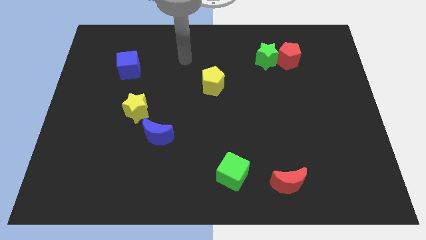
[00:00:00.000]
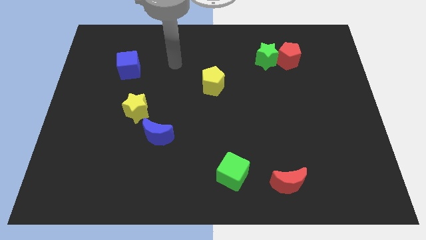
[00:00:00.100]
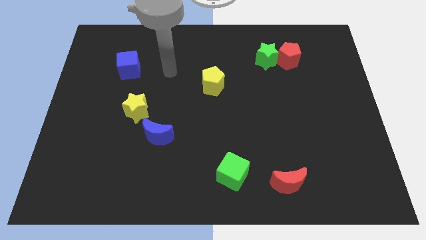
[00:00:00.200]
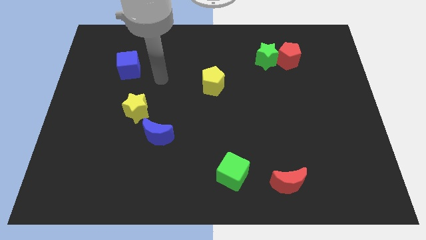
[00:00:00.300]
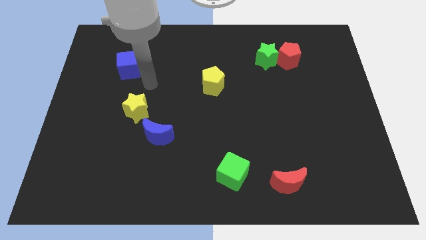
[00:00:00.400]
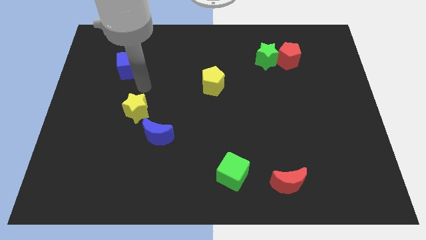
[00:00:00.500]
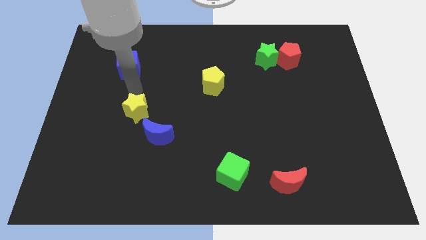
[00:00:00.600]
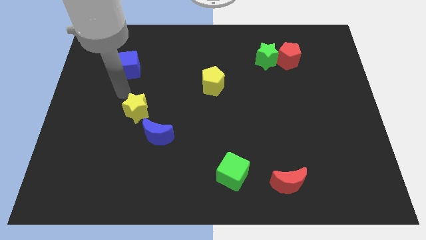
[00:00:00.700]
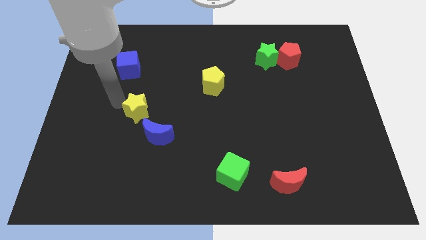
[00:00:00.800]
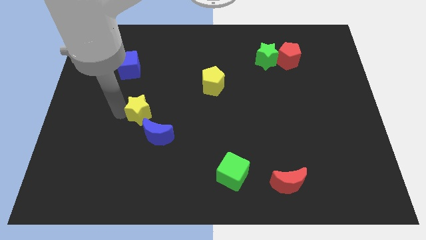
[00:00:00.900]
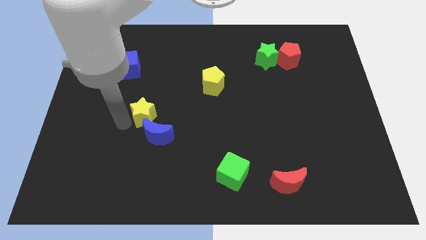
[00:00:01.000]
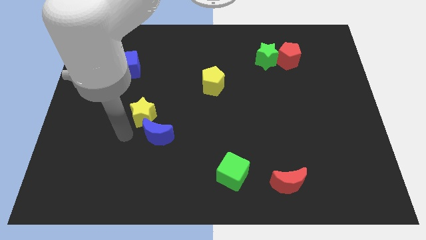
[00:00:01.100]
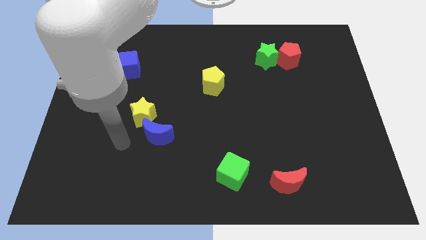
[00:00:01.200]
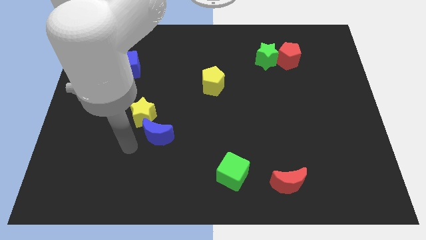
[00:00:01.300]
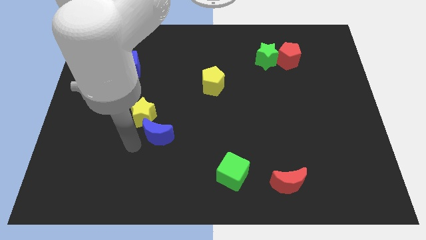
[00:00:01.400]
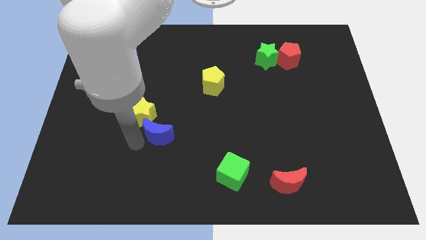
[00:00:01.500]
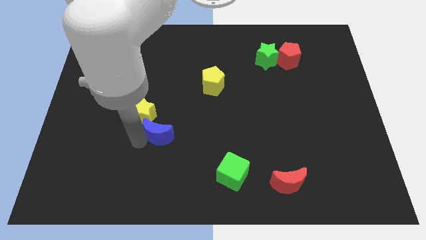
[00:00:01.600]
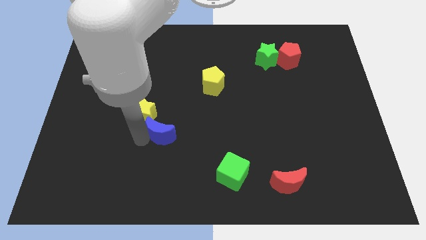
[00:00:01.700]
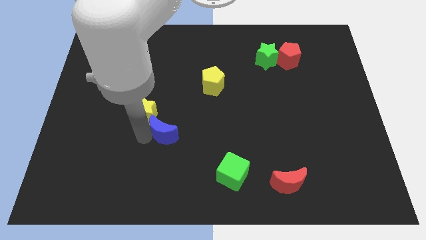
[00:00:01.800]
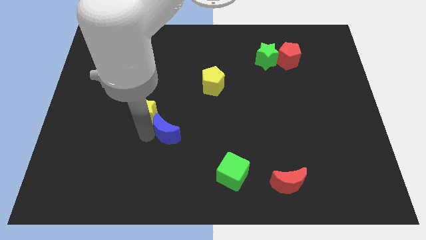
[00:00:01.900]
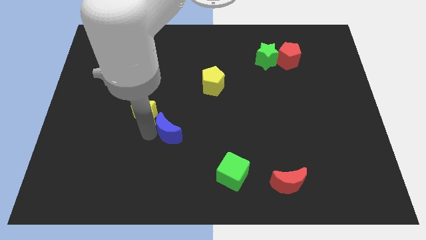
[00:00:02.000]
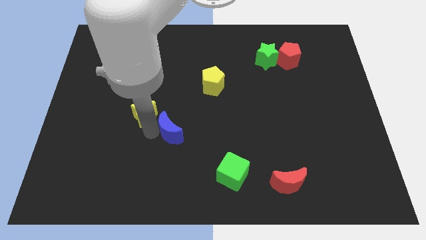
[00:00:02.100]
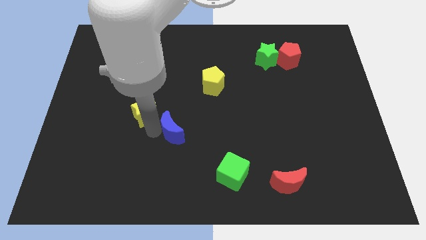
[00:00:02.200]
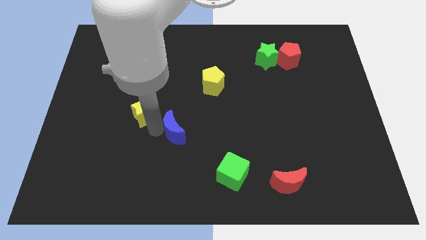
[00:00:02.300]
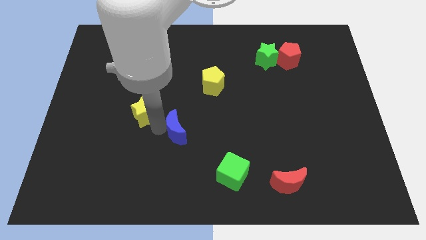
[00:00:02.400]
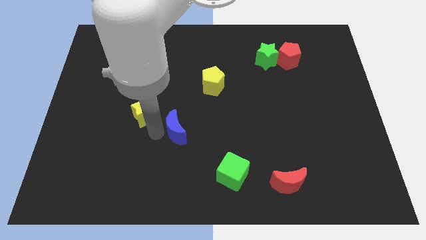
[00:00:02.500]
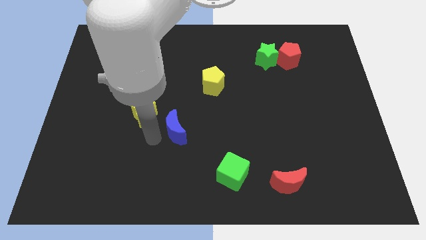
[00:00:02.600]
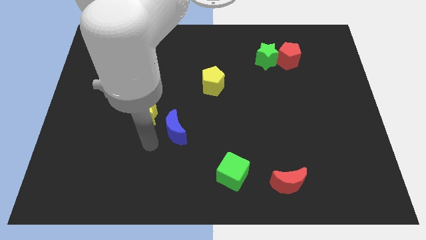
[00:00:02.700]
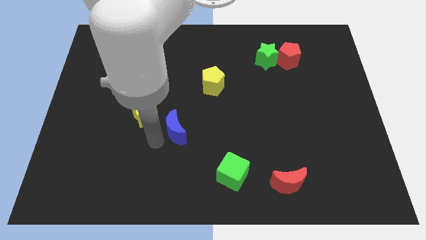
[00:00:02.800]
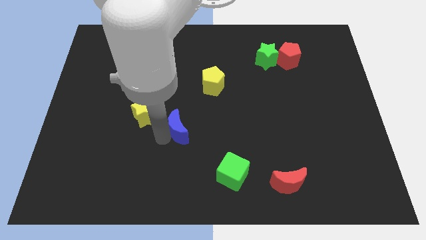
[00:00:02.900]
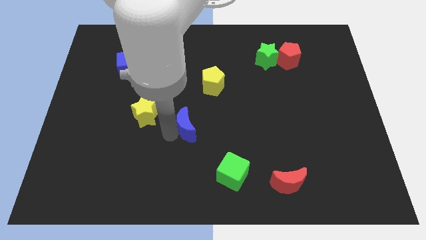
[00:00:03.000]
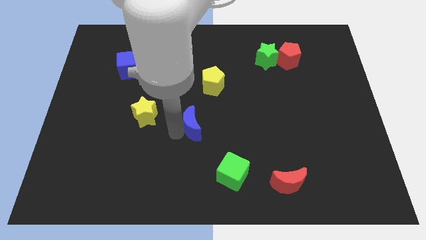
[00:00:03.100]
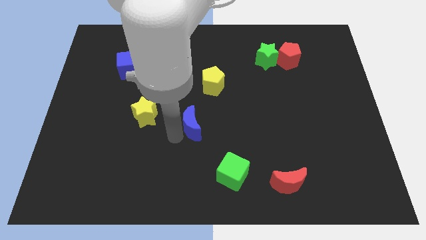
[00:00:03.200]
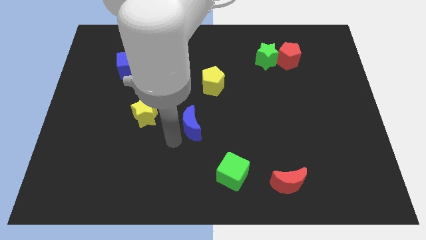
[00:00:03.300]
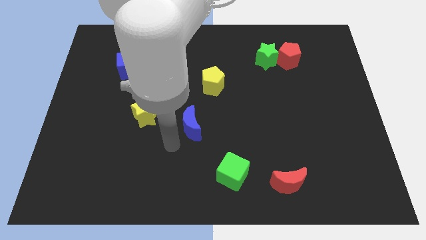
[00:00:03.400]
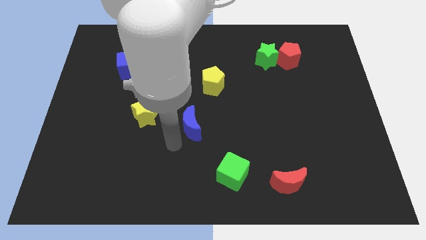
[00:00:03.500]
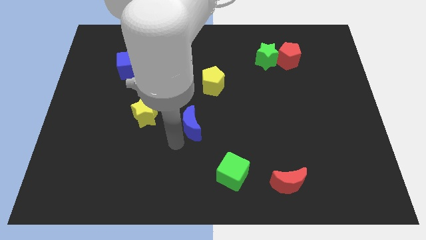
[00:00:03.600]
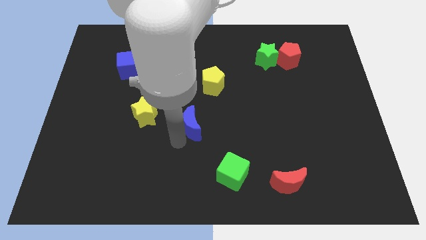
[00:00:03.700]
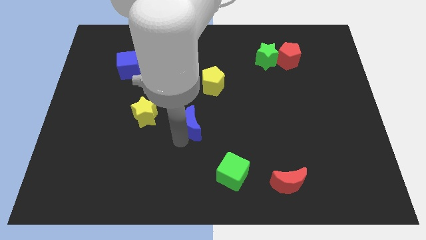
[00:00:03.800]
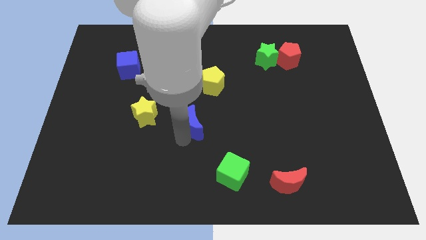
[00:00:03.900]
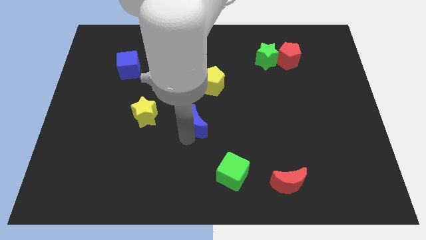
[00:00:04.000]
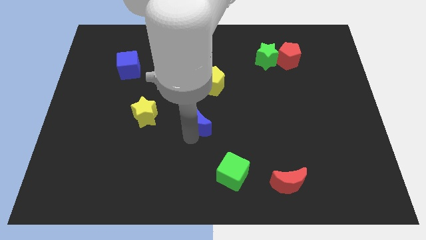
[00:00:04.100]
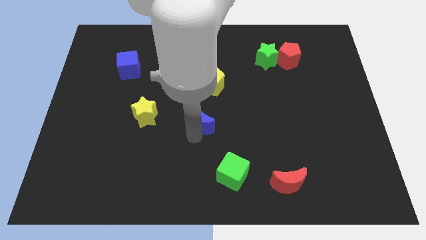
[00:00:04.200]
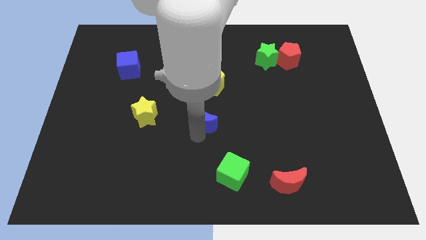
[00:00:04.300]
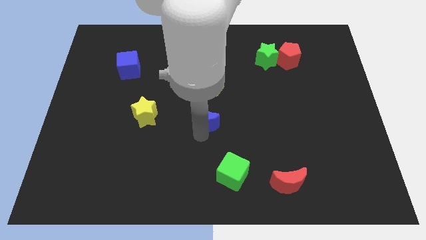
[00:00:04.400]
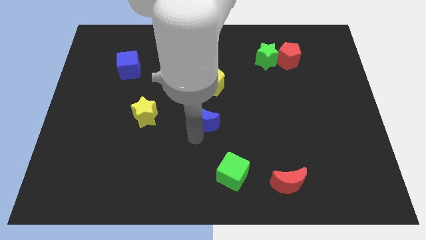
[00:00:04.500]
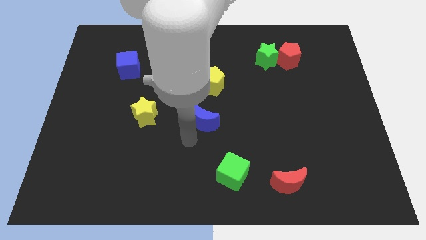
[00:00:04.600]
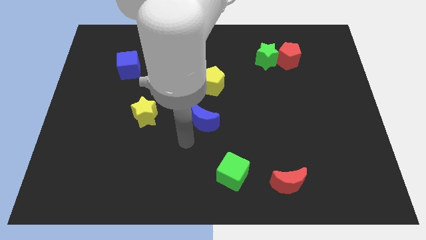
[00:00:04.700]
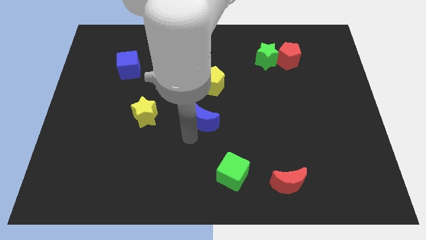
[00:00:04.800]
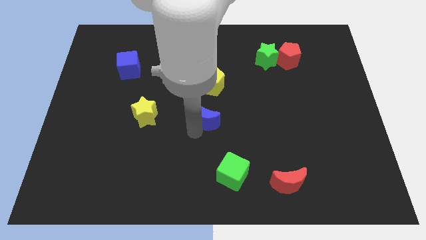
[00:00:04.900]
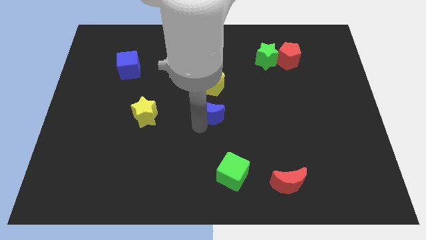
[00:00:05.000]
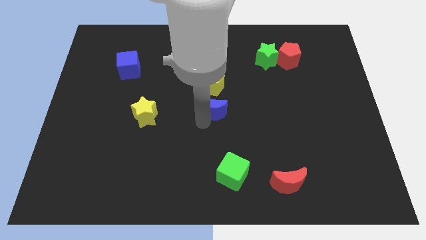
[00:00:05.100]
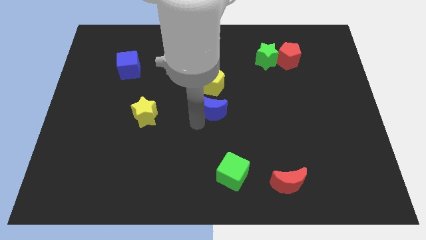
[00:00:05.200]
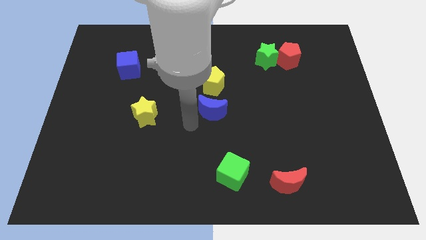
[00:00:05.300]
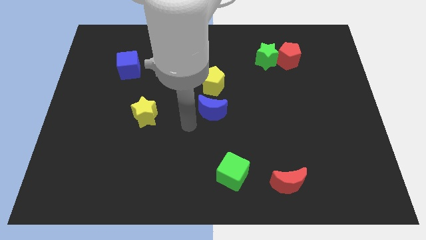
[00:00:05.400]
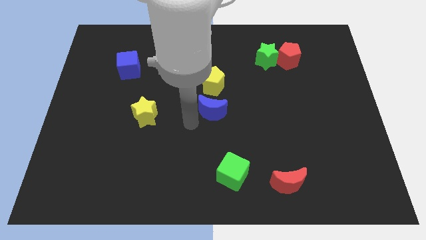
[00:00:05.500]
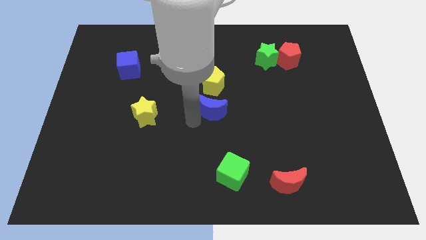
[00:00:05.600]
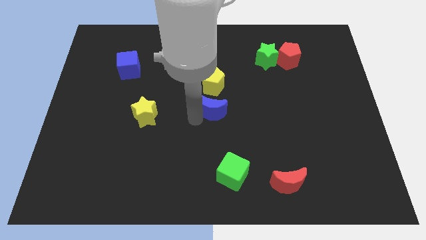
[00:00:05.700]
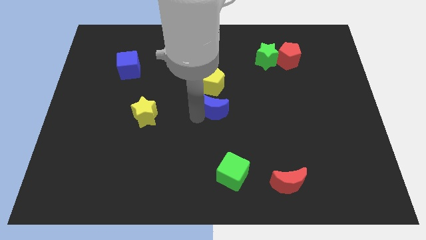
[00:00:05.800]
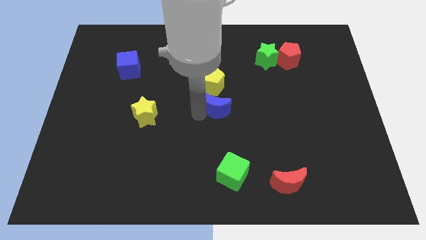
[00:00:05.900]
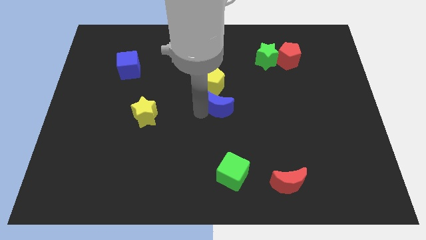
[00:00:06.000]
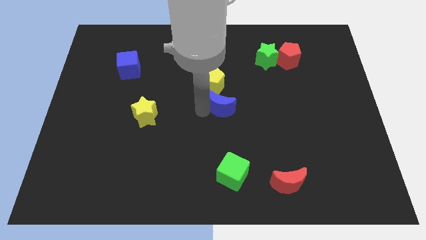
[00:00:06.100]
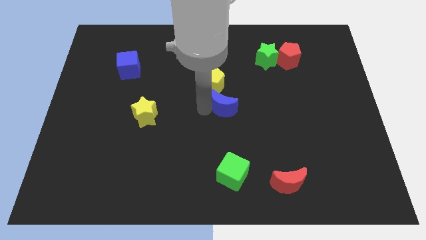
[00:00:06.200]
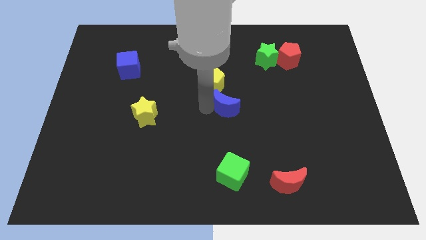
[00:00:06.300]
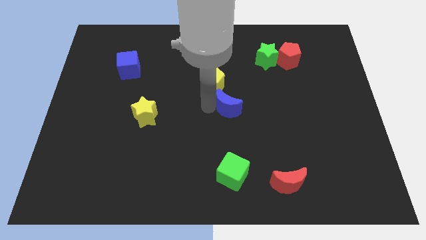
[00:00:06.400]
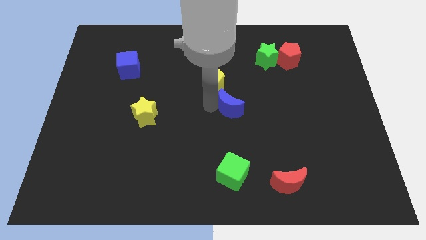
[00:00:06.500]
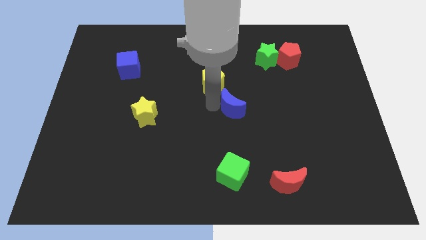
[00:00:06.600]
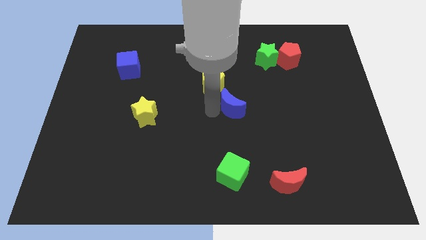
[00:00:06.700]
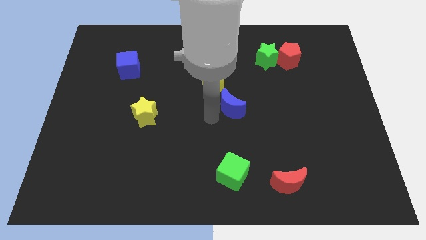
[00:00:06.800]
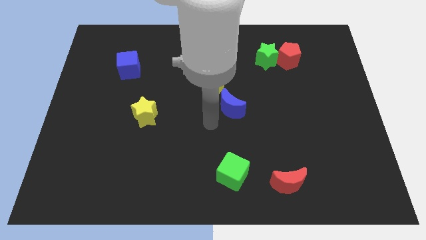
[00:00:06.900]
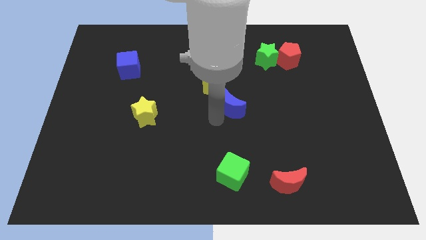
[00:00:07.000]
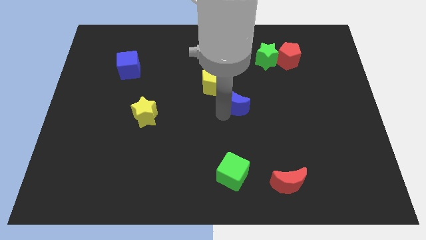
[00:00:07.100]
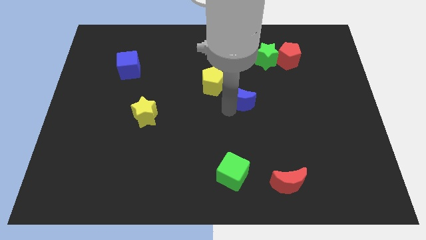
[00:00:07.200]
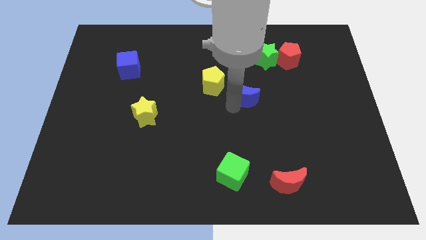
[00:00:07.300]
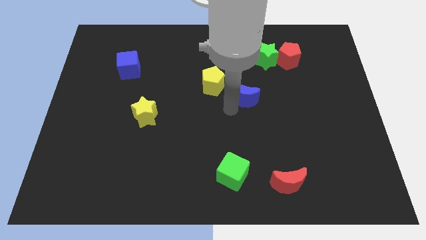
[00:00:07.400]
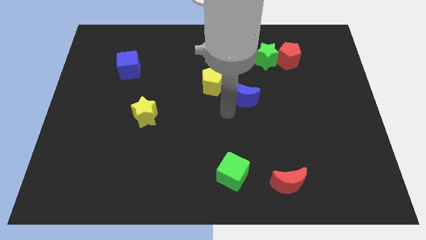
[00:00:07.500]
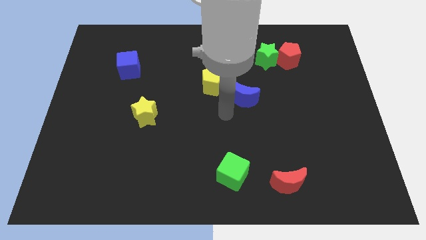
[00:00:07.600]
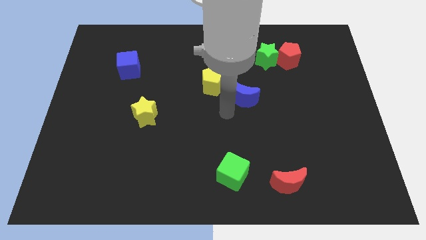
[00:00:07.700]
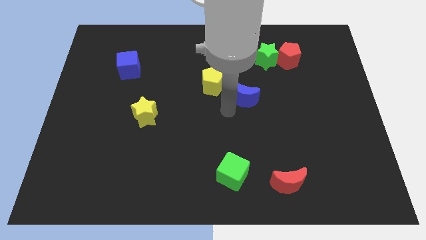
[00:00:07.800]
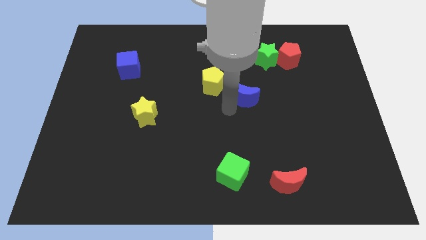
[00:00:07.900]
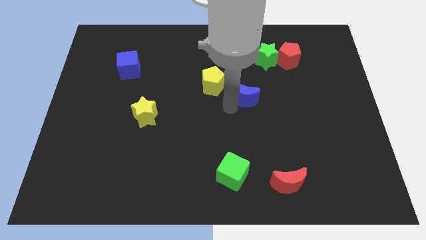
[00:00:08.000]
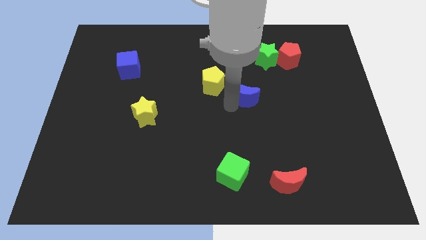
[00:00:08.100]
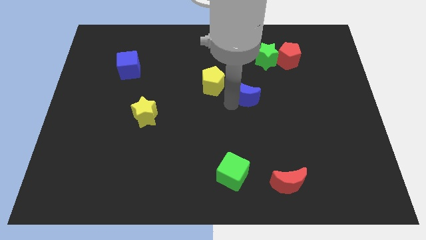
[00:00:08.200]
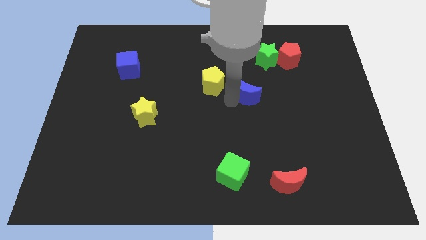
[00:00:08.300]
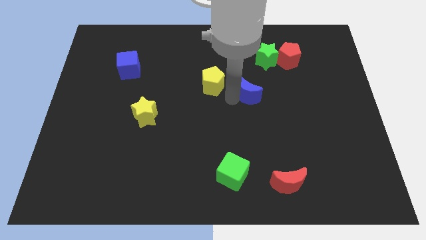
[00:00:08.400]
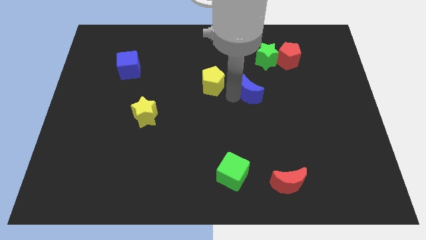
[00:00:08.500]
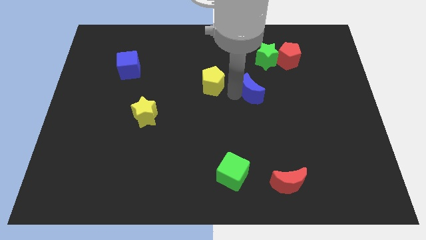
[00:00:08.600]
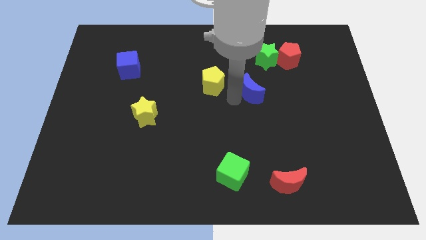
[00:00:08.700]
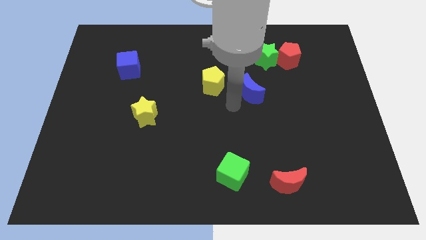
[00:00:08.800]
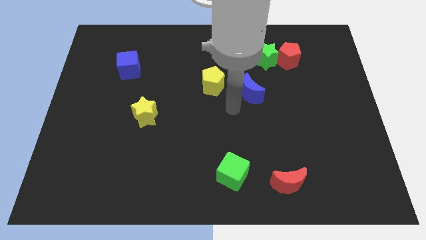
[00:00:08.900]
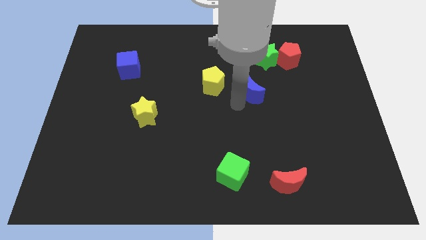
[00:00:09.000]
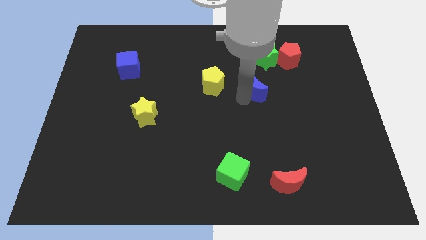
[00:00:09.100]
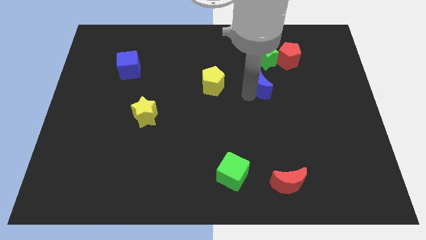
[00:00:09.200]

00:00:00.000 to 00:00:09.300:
push the blue moon to the bottom left of the red pentagon
